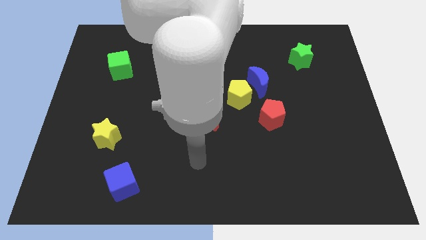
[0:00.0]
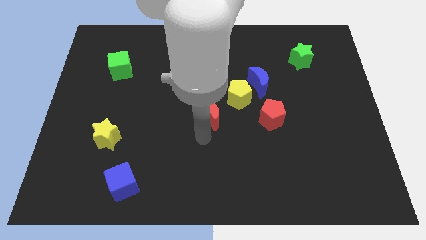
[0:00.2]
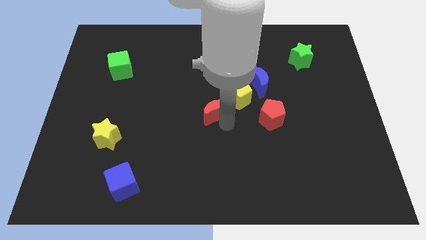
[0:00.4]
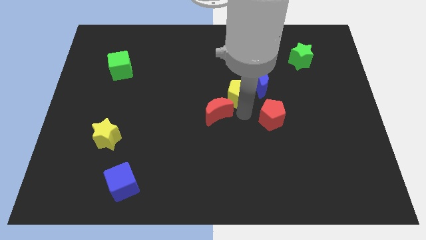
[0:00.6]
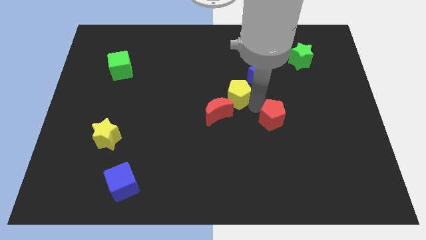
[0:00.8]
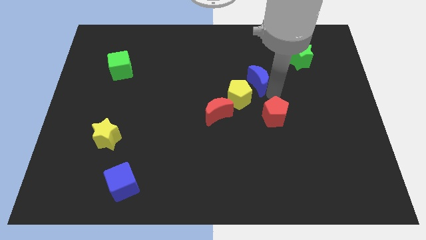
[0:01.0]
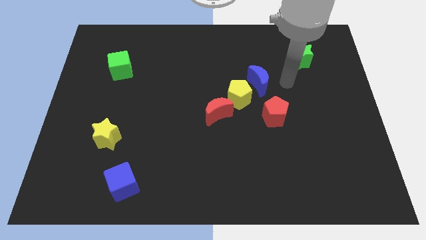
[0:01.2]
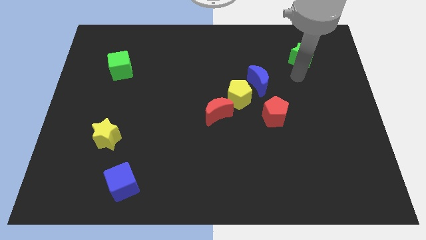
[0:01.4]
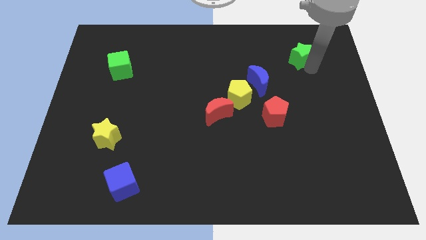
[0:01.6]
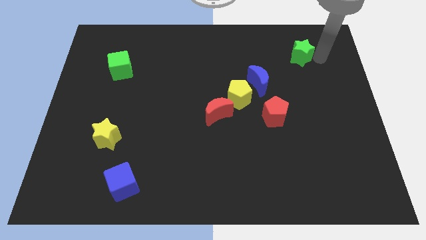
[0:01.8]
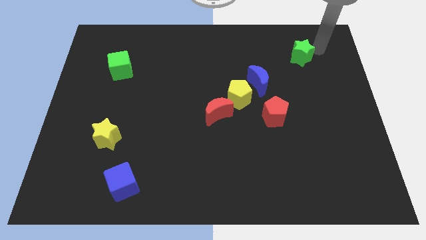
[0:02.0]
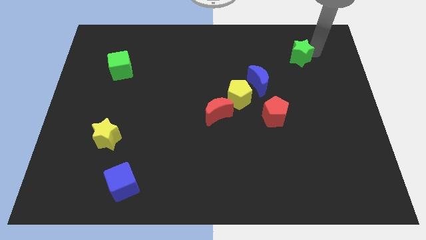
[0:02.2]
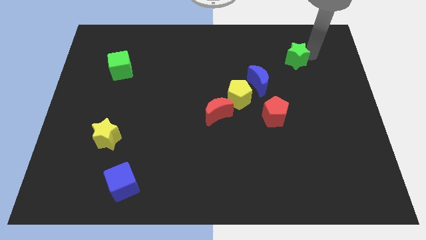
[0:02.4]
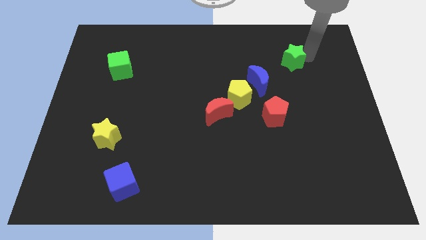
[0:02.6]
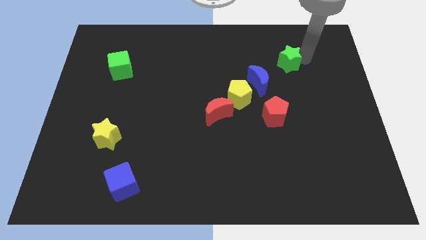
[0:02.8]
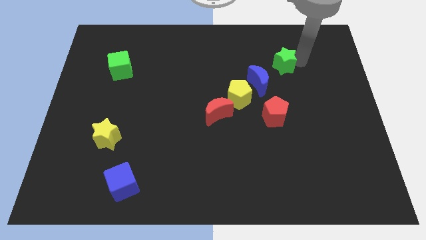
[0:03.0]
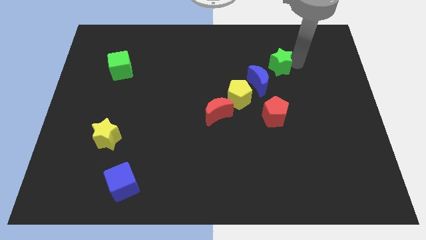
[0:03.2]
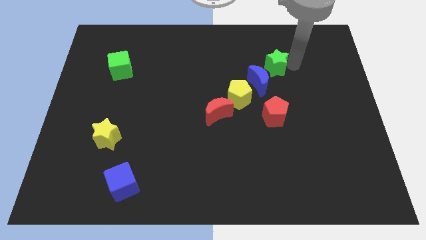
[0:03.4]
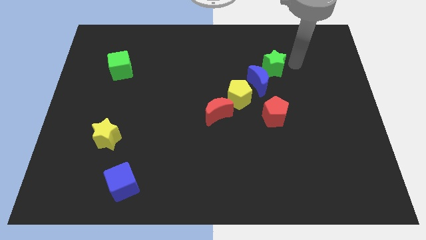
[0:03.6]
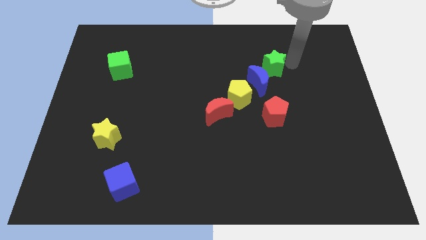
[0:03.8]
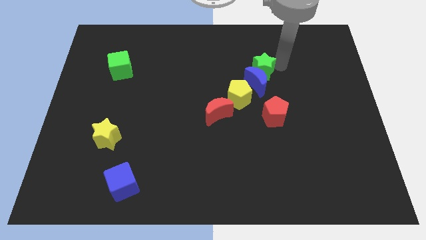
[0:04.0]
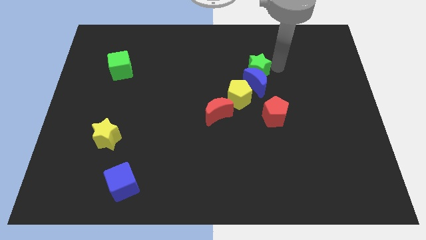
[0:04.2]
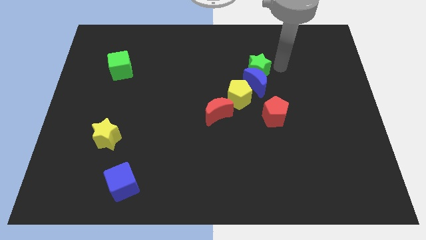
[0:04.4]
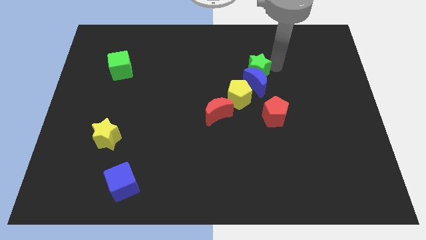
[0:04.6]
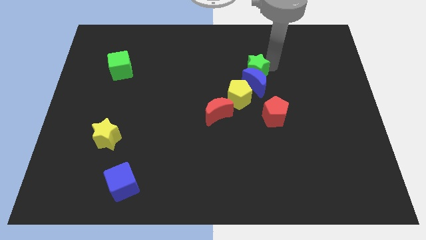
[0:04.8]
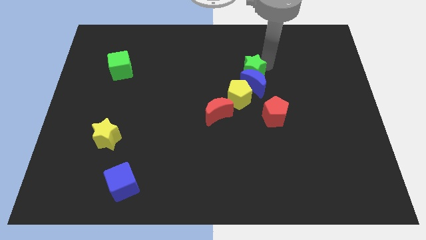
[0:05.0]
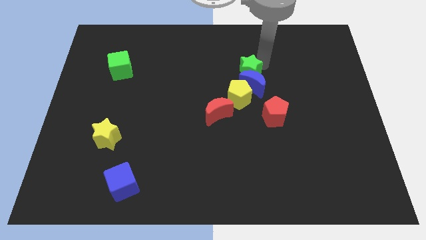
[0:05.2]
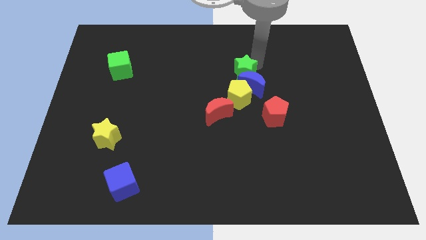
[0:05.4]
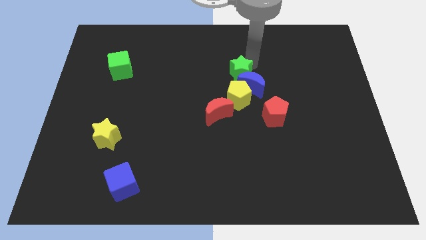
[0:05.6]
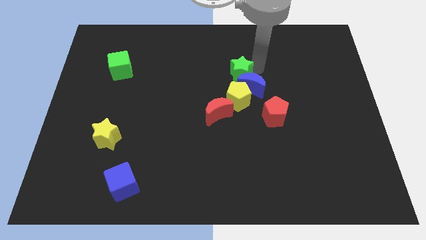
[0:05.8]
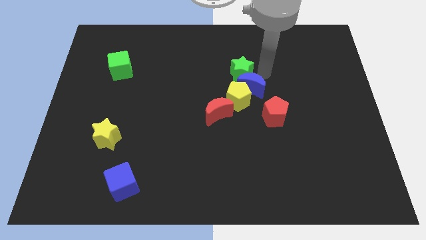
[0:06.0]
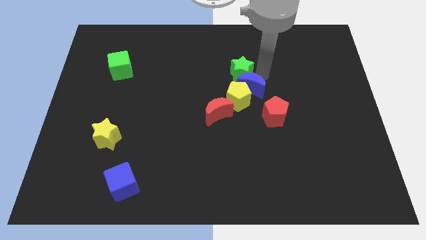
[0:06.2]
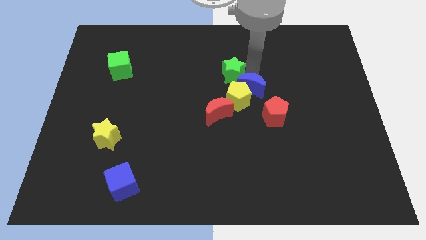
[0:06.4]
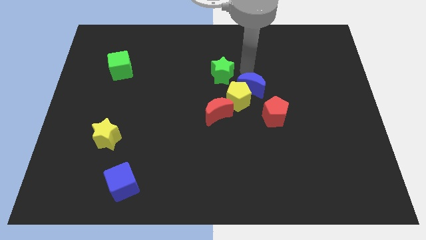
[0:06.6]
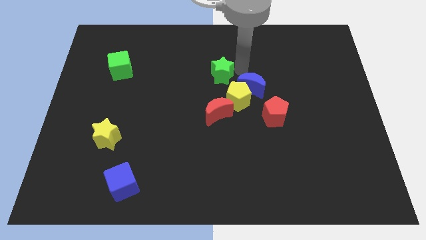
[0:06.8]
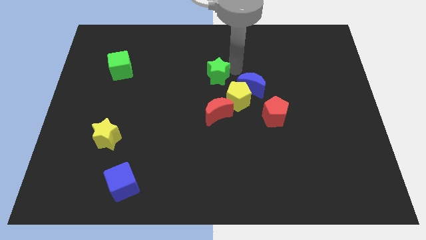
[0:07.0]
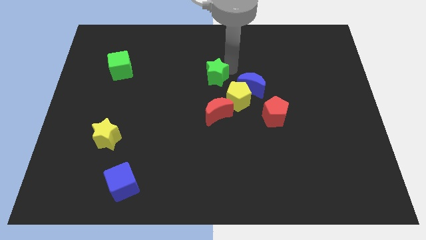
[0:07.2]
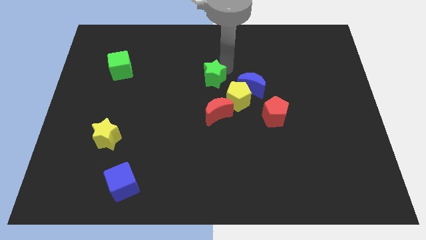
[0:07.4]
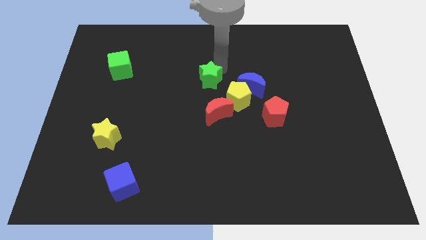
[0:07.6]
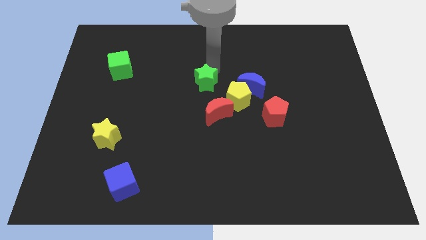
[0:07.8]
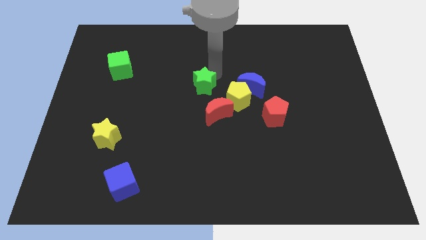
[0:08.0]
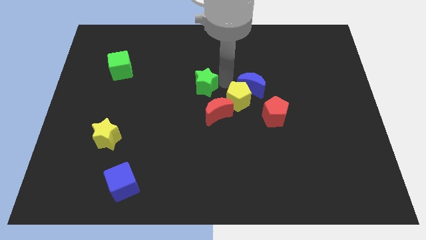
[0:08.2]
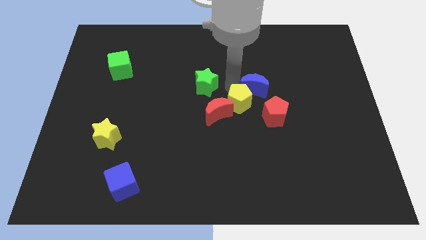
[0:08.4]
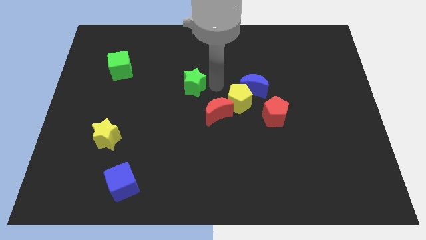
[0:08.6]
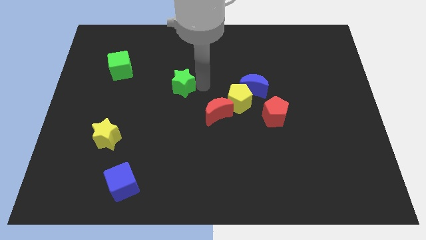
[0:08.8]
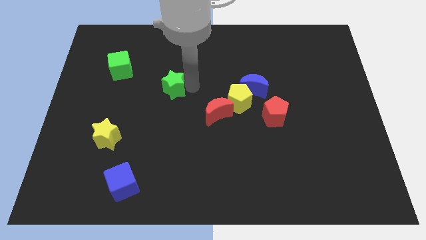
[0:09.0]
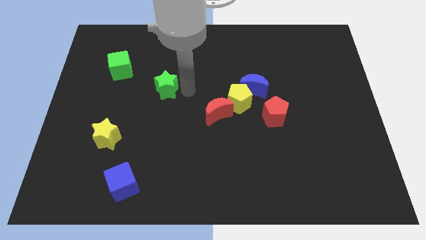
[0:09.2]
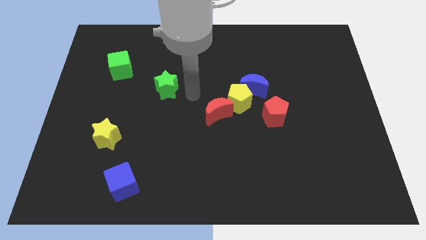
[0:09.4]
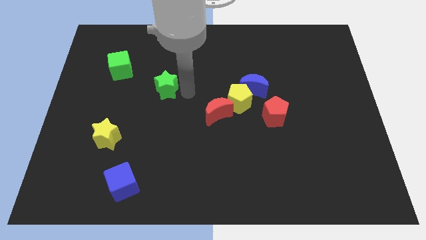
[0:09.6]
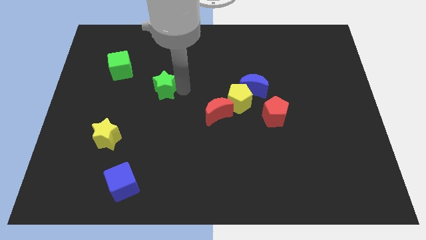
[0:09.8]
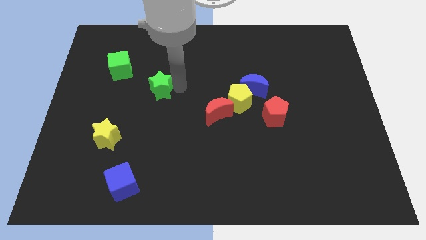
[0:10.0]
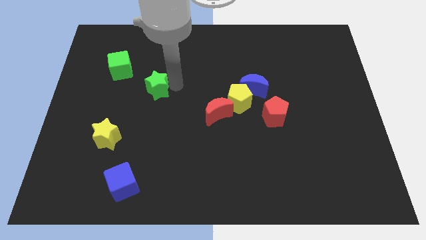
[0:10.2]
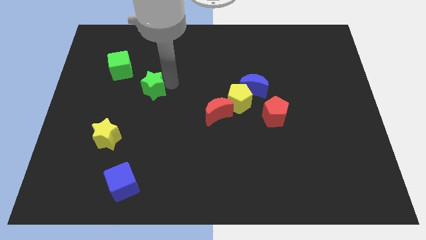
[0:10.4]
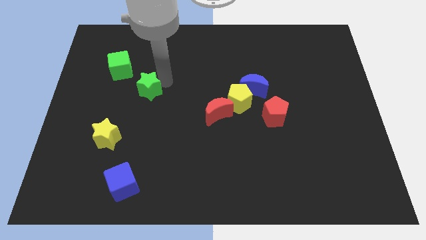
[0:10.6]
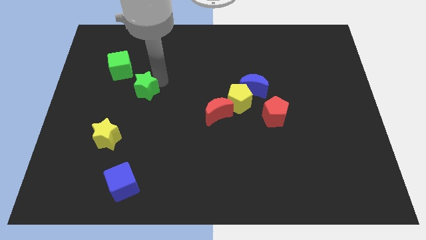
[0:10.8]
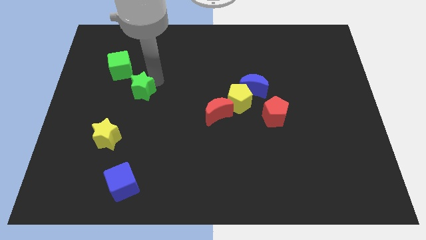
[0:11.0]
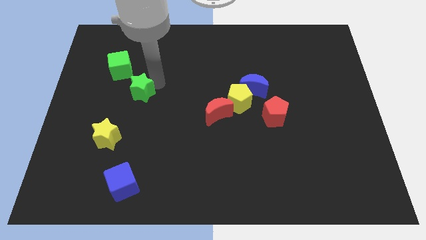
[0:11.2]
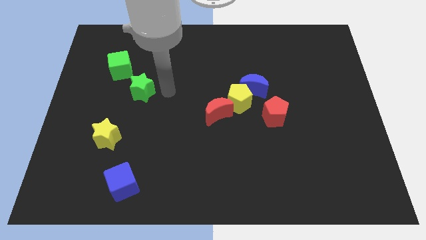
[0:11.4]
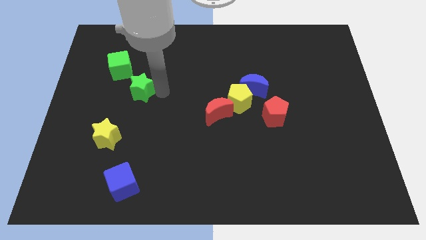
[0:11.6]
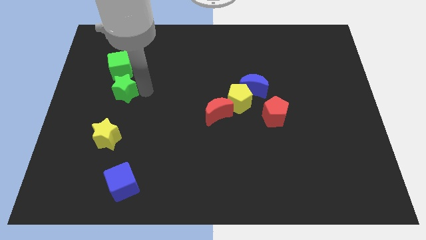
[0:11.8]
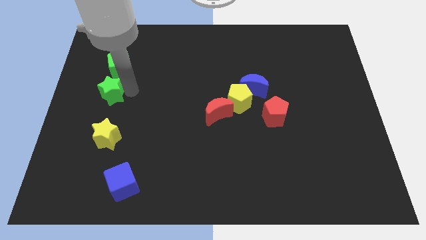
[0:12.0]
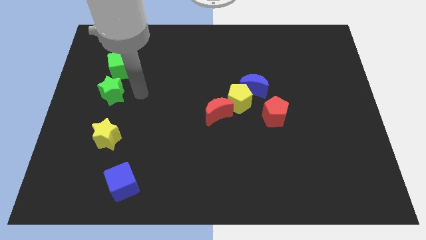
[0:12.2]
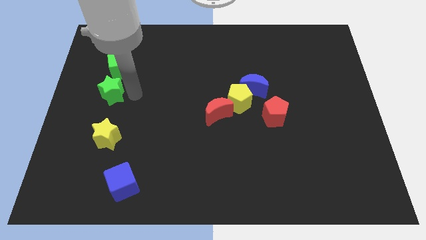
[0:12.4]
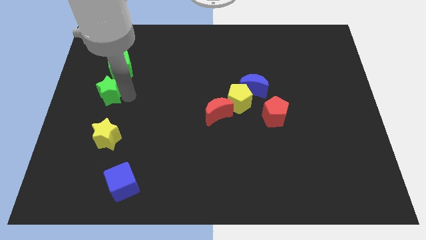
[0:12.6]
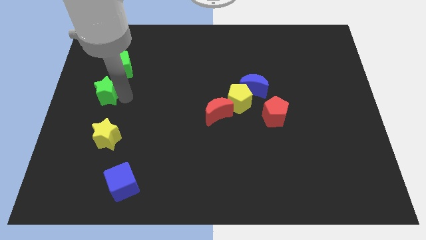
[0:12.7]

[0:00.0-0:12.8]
move the green star to the left side of the board
